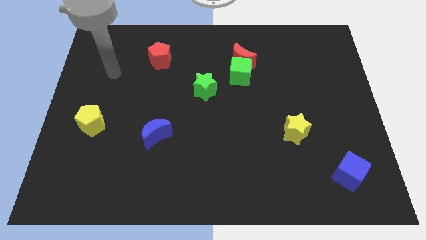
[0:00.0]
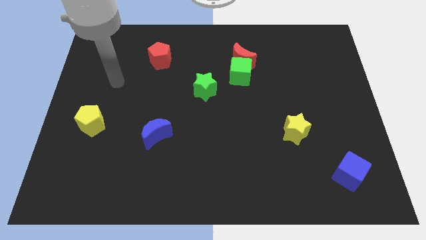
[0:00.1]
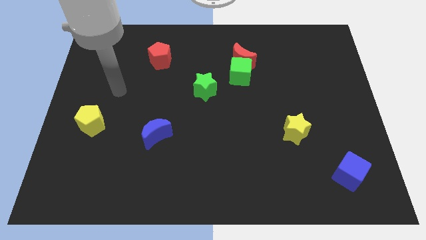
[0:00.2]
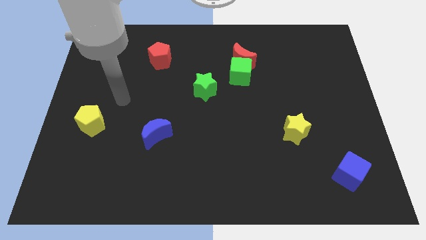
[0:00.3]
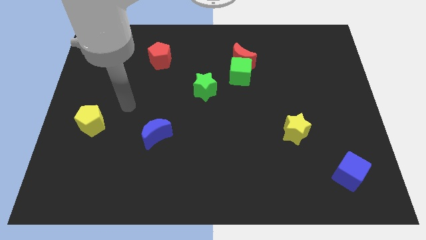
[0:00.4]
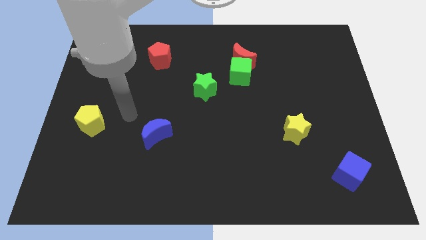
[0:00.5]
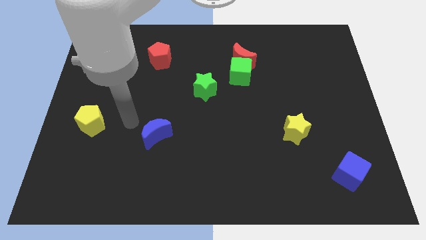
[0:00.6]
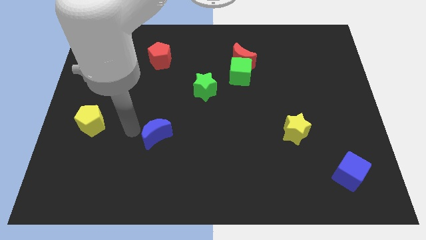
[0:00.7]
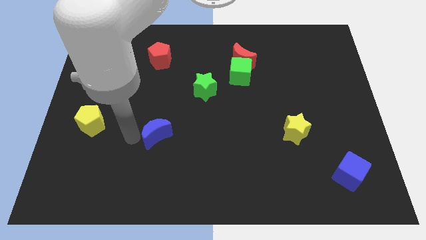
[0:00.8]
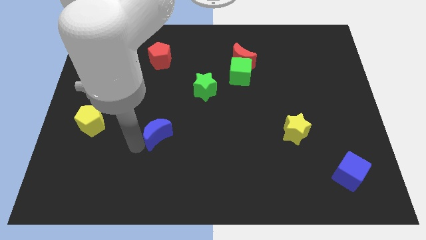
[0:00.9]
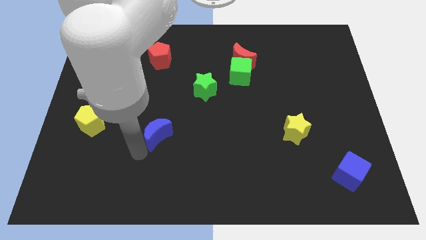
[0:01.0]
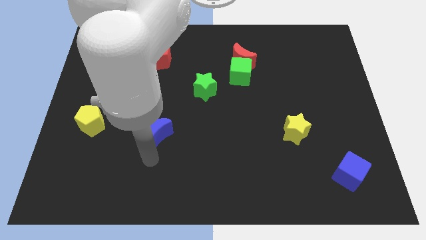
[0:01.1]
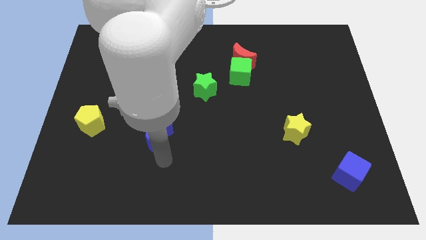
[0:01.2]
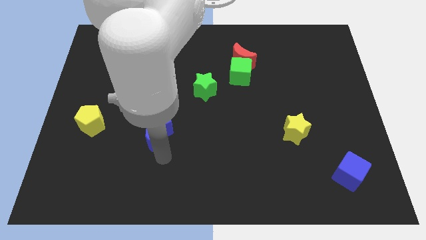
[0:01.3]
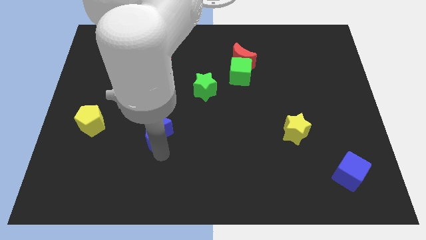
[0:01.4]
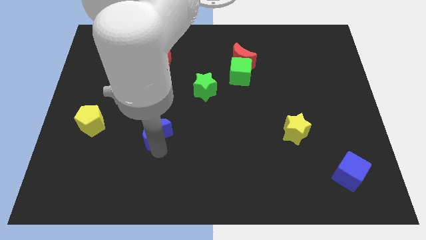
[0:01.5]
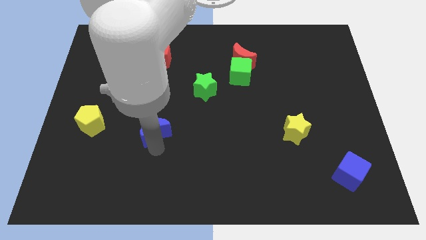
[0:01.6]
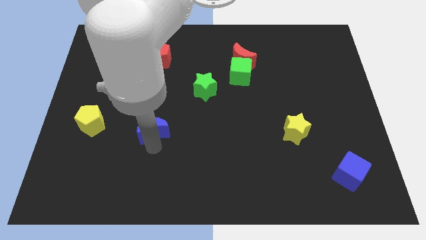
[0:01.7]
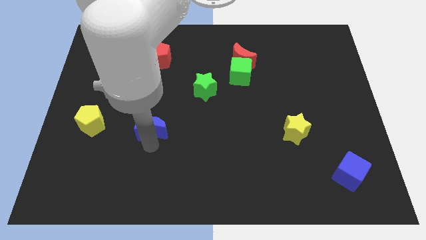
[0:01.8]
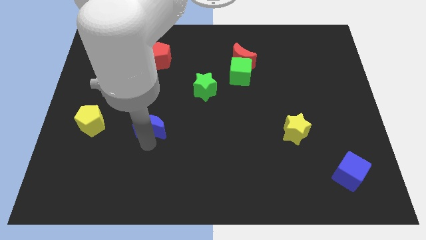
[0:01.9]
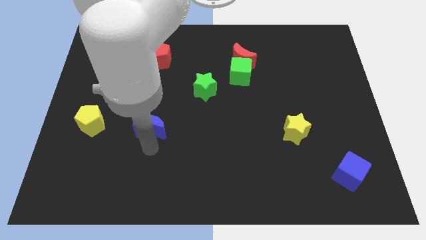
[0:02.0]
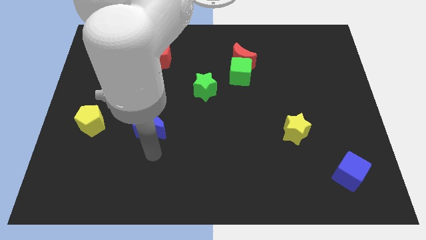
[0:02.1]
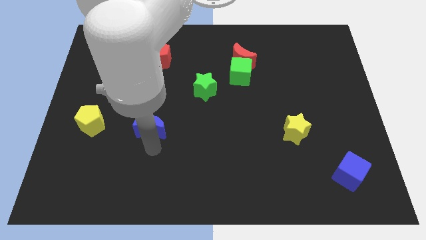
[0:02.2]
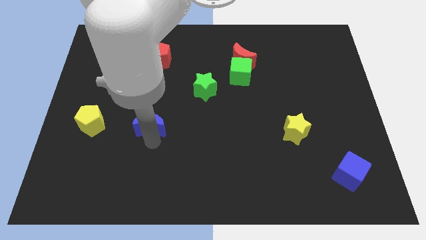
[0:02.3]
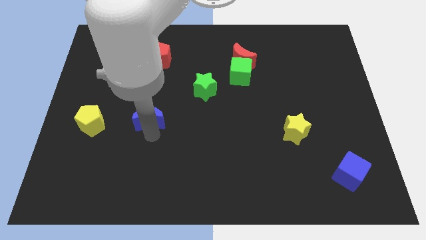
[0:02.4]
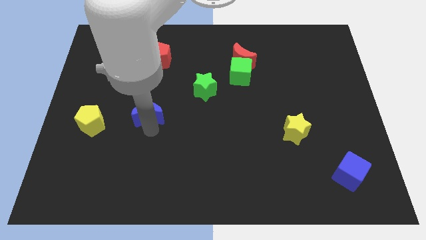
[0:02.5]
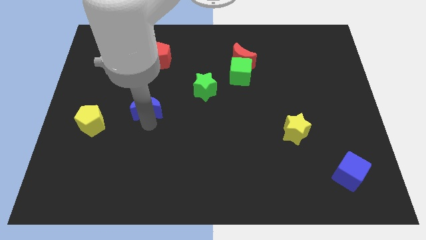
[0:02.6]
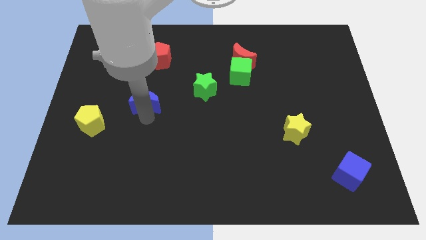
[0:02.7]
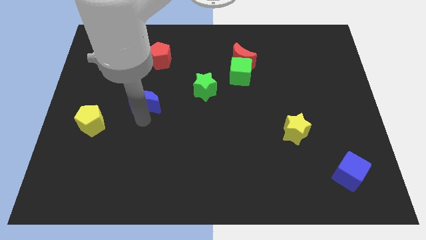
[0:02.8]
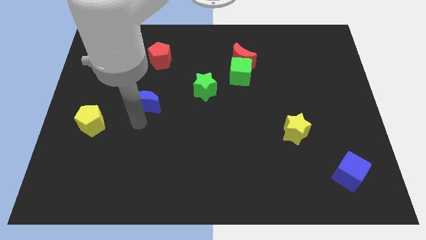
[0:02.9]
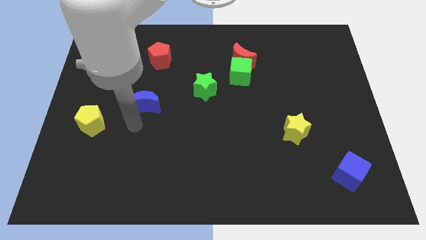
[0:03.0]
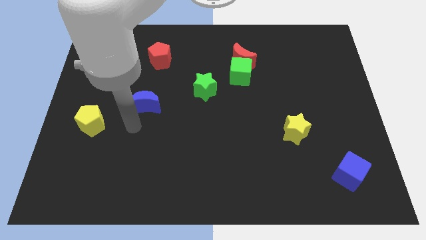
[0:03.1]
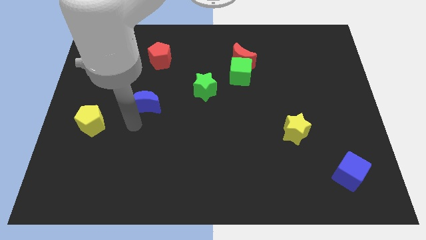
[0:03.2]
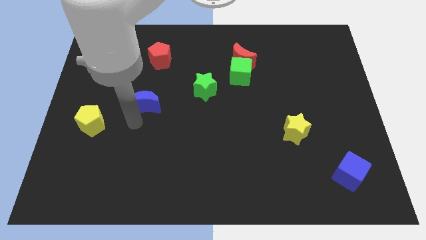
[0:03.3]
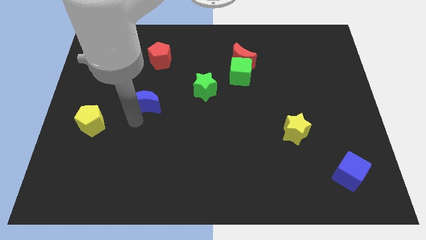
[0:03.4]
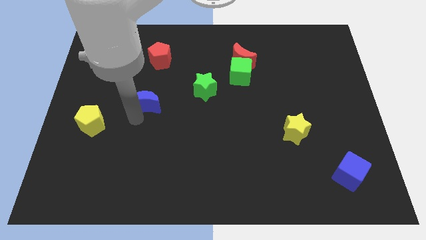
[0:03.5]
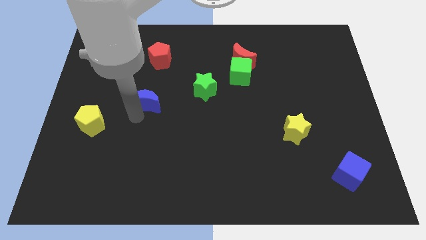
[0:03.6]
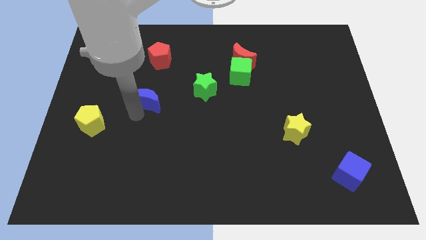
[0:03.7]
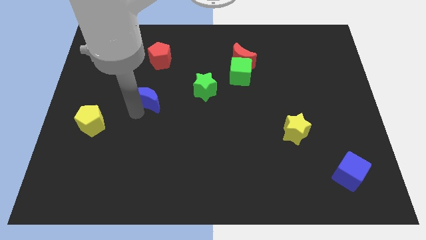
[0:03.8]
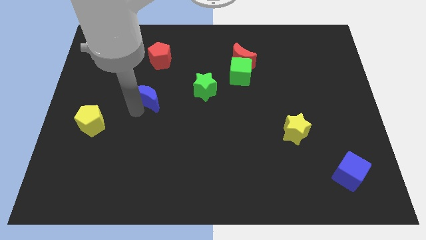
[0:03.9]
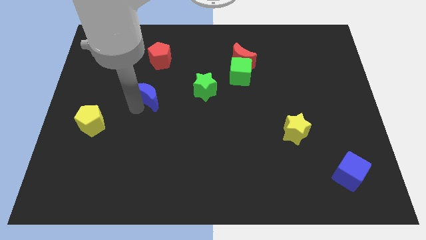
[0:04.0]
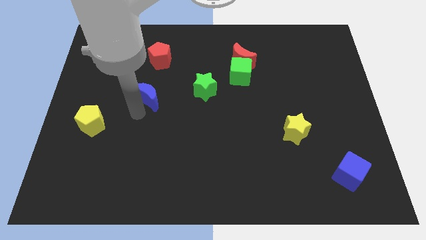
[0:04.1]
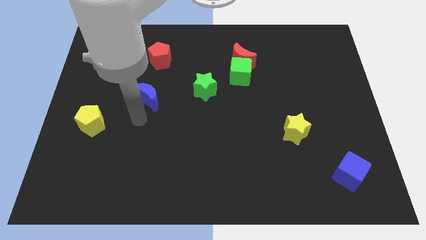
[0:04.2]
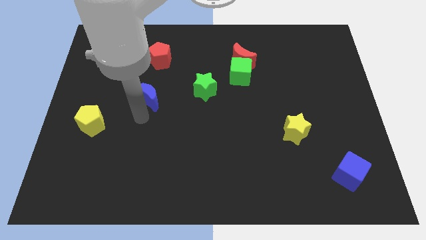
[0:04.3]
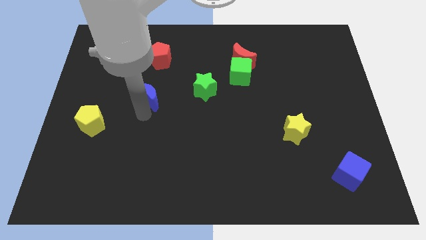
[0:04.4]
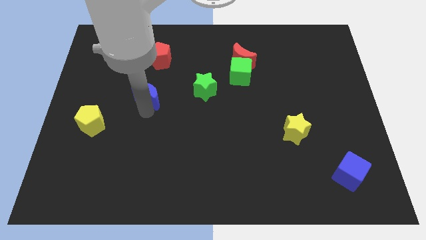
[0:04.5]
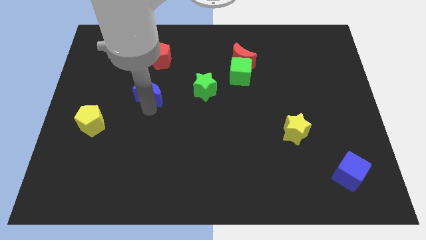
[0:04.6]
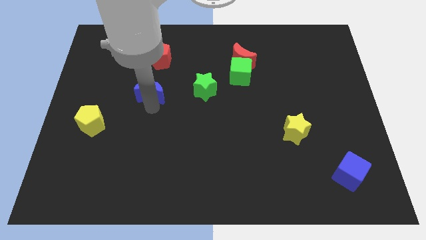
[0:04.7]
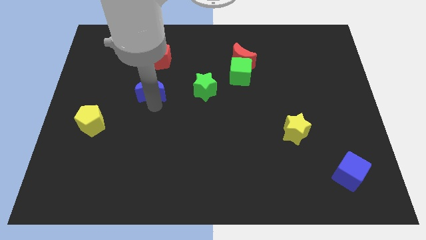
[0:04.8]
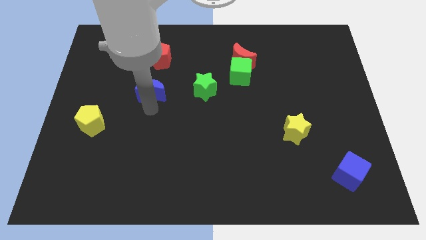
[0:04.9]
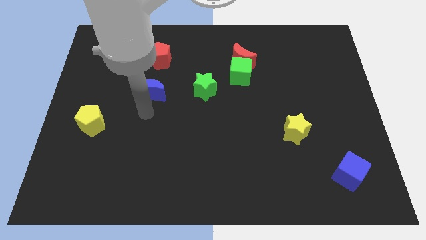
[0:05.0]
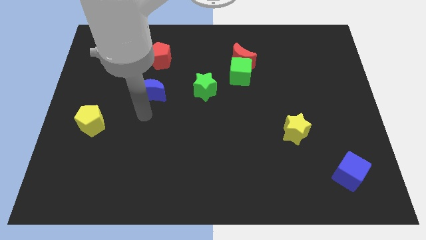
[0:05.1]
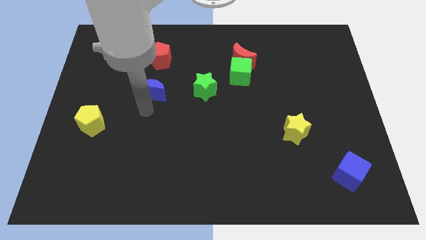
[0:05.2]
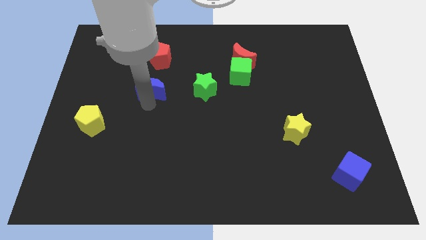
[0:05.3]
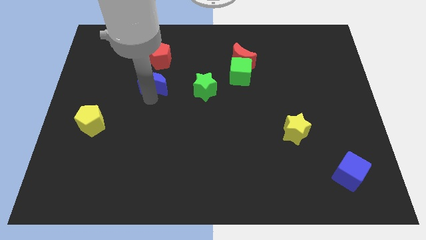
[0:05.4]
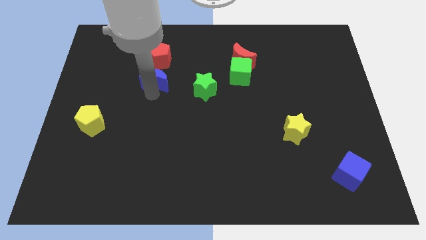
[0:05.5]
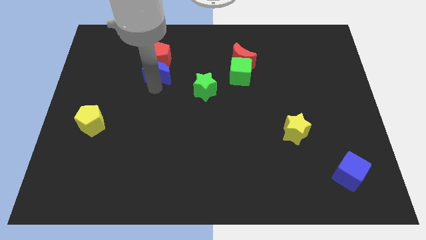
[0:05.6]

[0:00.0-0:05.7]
slide the blue moon close to the red pentagon
